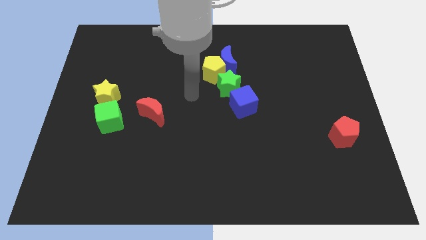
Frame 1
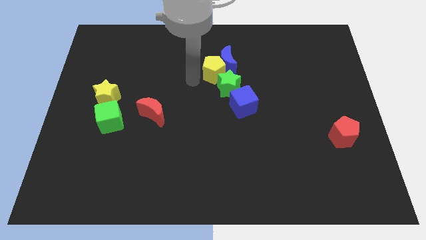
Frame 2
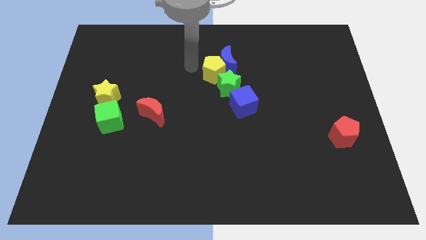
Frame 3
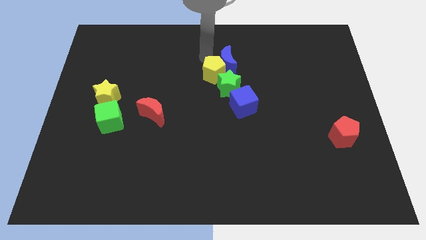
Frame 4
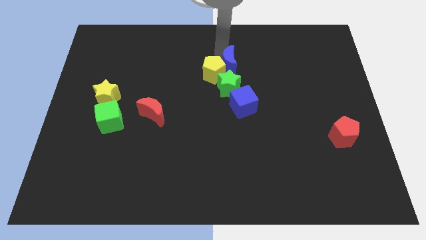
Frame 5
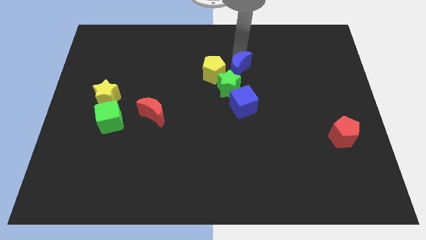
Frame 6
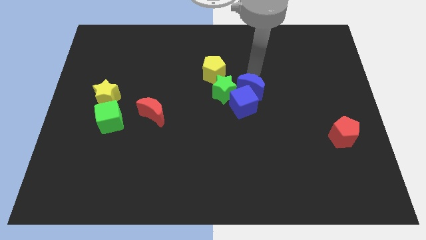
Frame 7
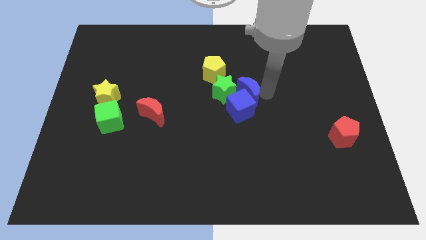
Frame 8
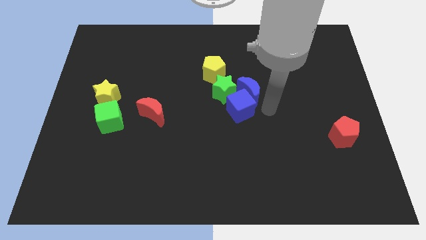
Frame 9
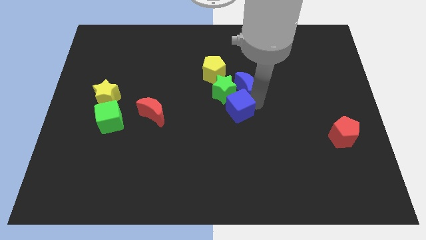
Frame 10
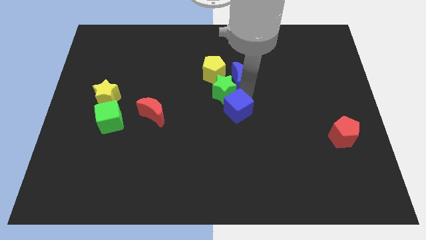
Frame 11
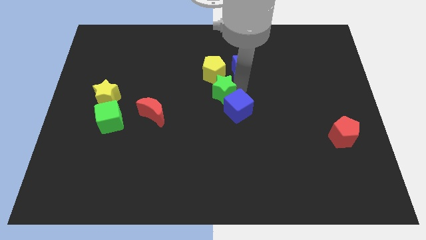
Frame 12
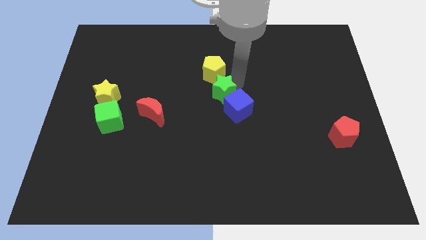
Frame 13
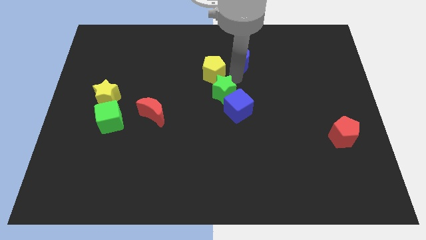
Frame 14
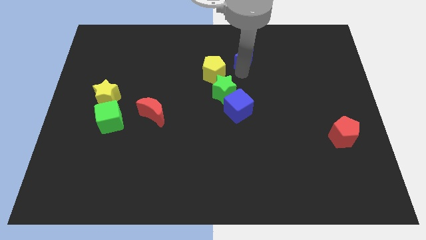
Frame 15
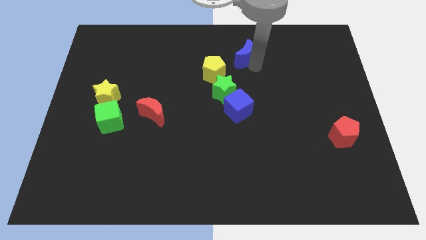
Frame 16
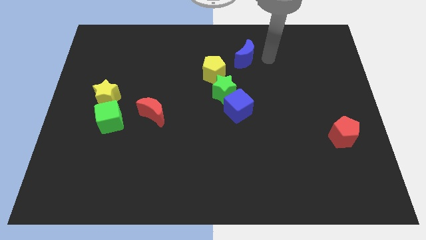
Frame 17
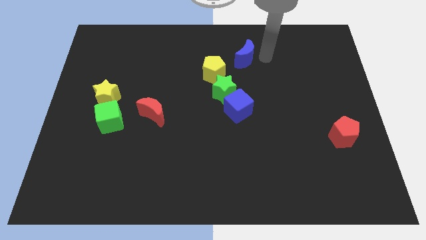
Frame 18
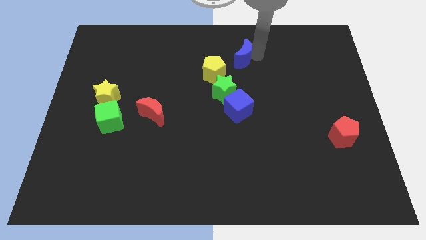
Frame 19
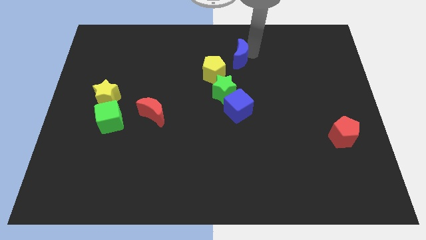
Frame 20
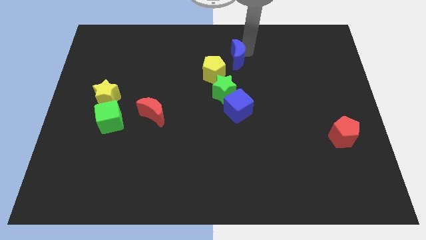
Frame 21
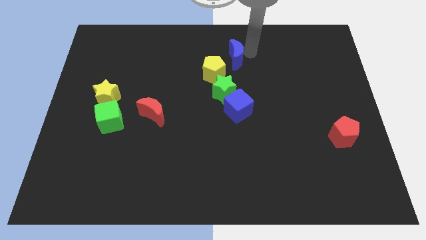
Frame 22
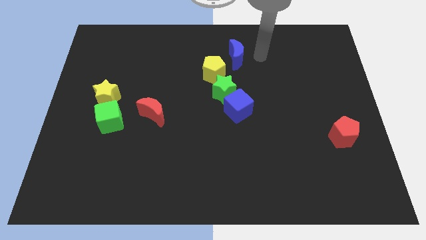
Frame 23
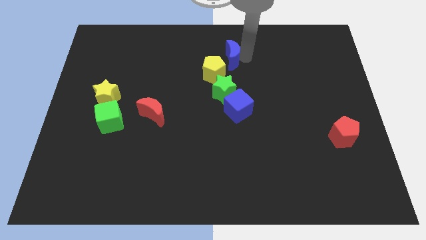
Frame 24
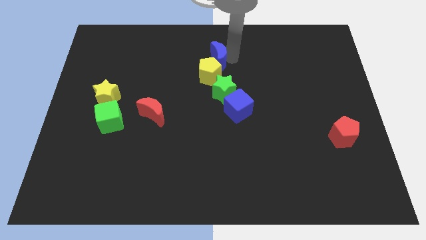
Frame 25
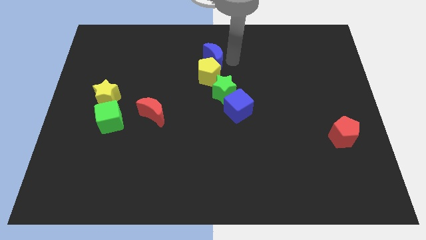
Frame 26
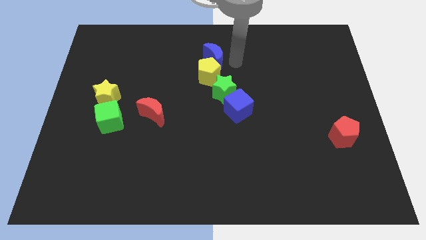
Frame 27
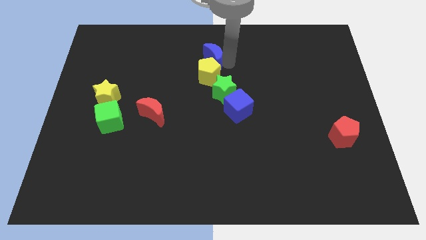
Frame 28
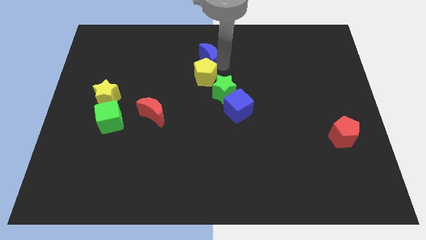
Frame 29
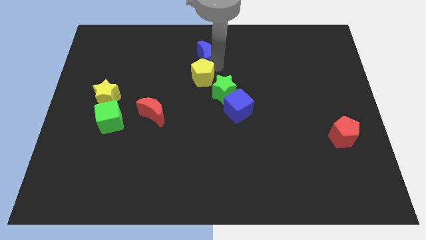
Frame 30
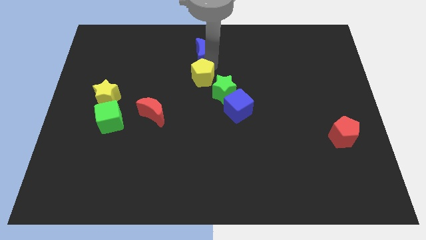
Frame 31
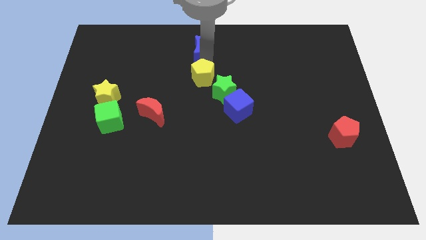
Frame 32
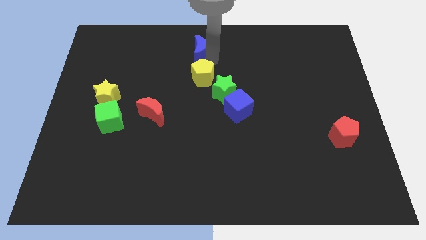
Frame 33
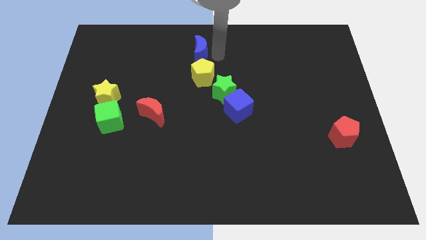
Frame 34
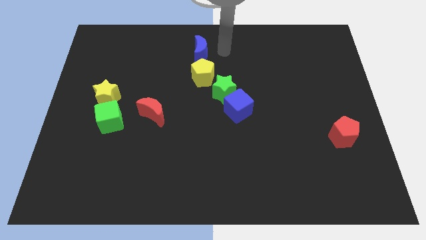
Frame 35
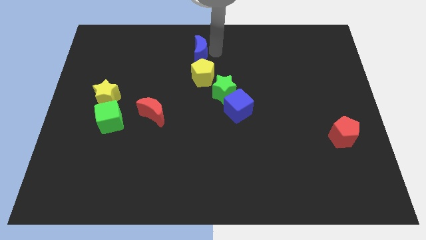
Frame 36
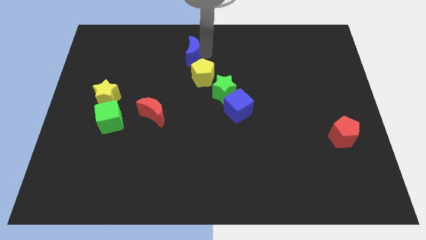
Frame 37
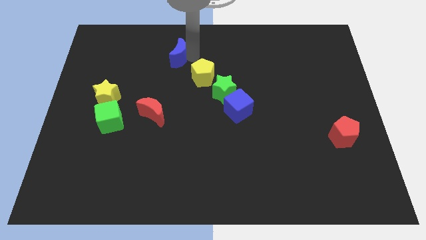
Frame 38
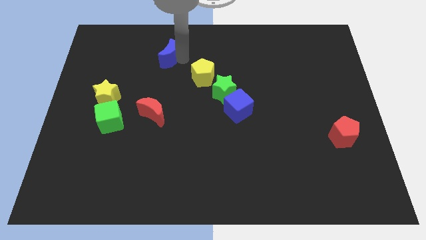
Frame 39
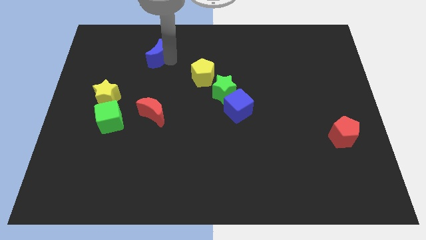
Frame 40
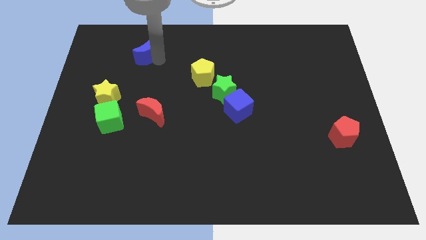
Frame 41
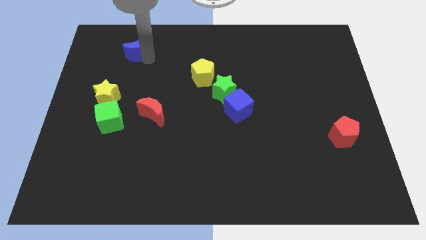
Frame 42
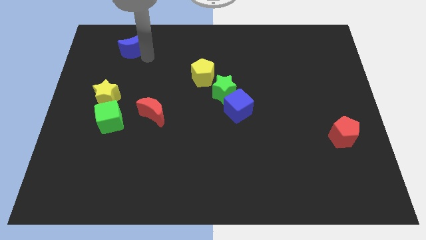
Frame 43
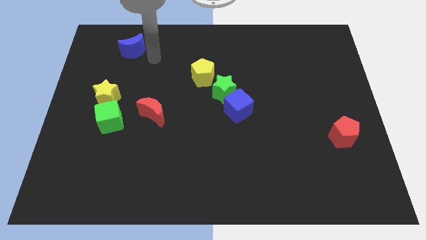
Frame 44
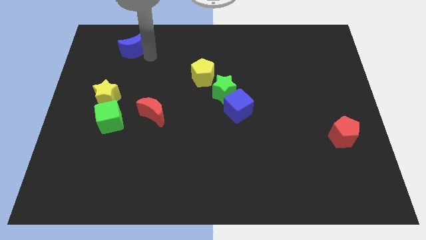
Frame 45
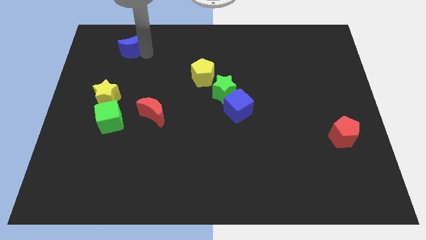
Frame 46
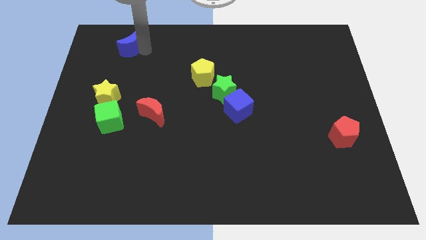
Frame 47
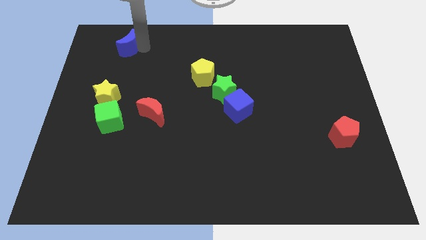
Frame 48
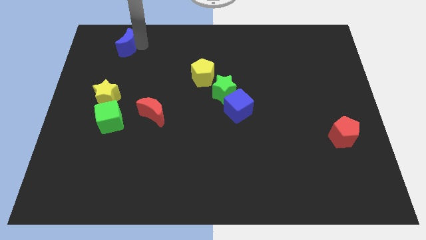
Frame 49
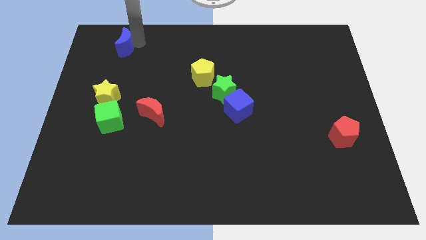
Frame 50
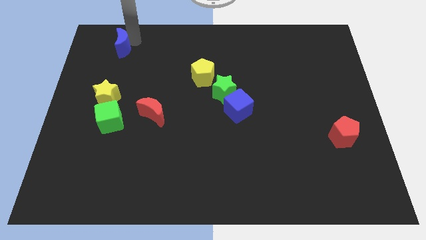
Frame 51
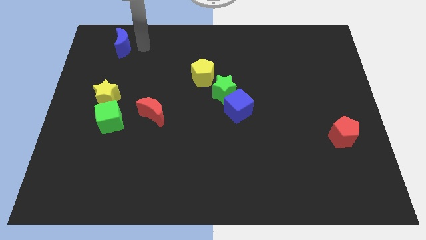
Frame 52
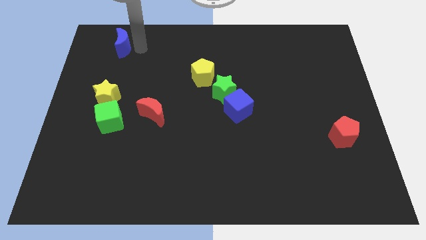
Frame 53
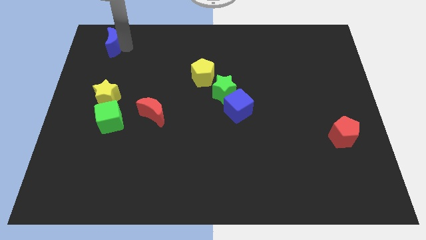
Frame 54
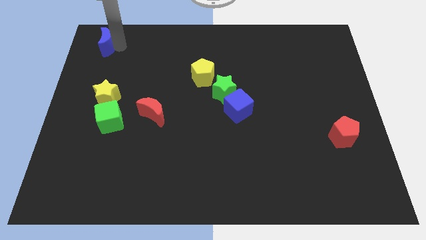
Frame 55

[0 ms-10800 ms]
put the blue moon to the top left corner

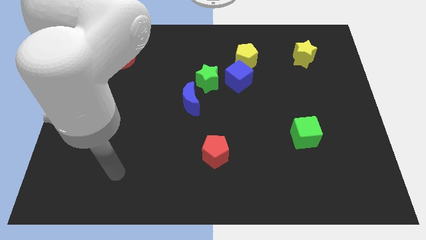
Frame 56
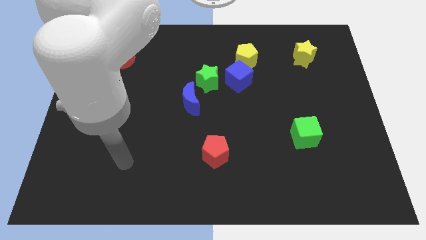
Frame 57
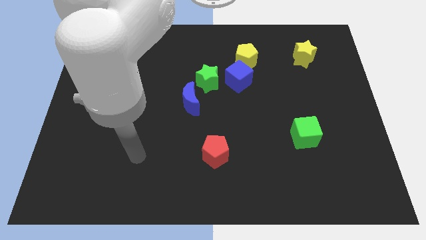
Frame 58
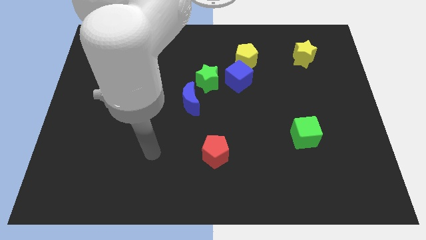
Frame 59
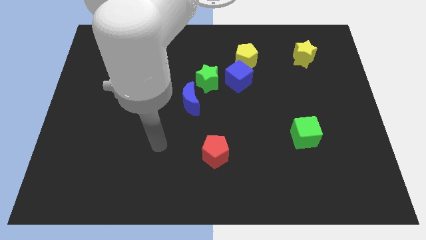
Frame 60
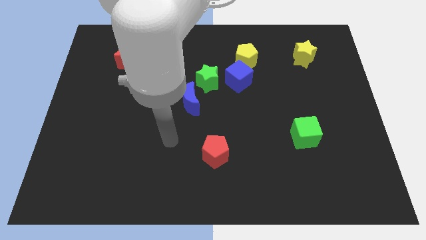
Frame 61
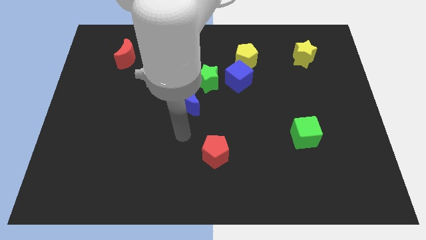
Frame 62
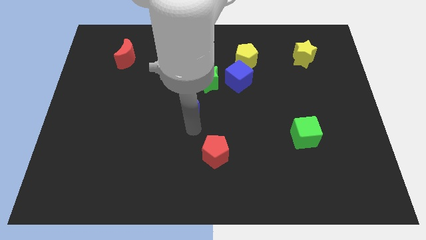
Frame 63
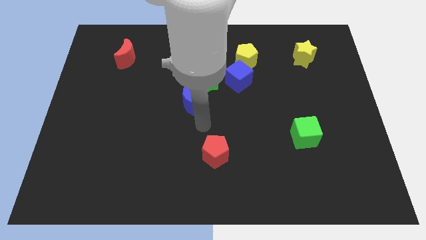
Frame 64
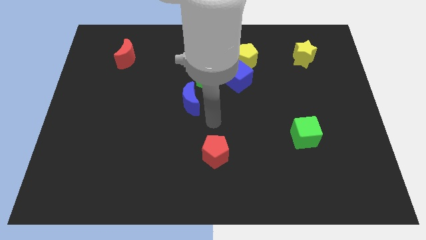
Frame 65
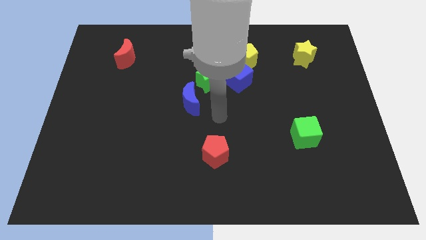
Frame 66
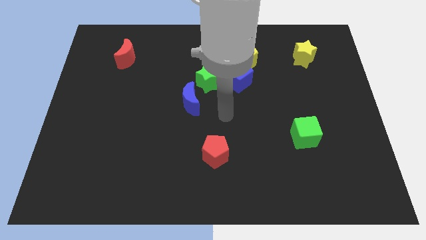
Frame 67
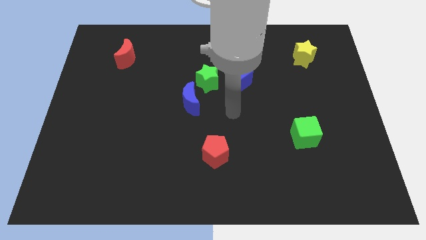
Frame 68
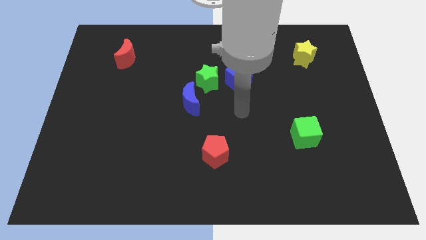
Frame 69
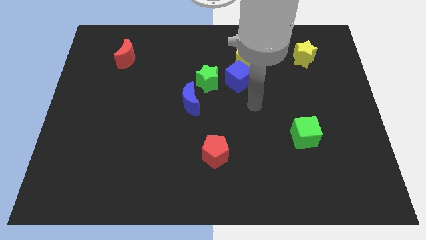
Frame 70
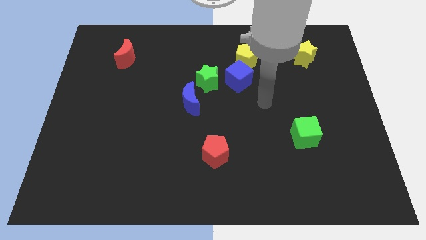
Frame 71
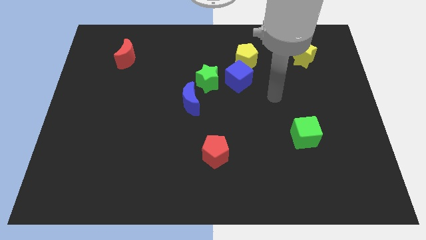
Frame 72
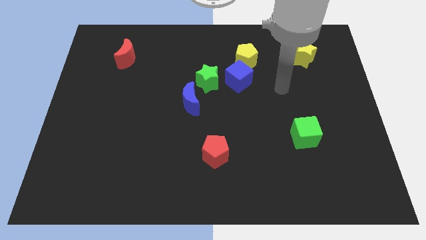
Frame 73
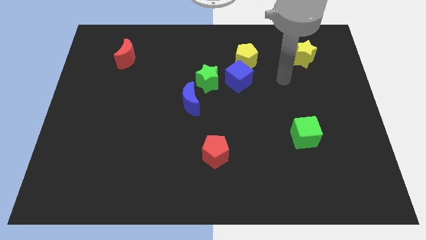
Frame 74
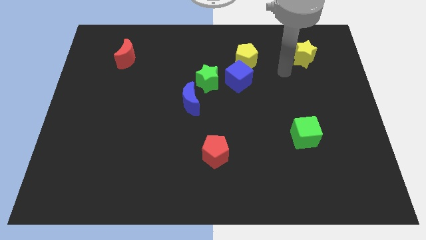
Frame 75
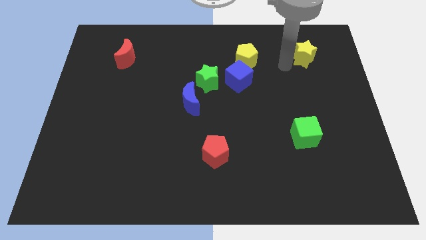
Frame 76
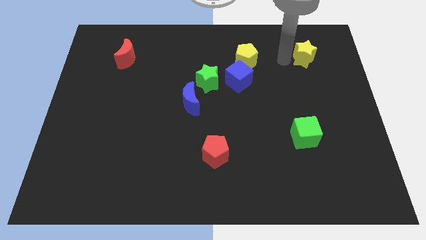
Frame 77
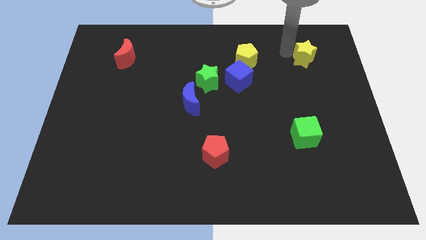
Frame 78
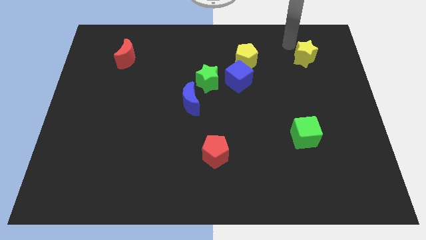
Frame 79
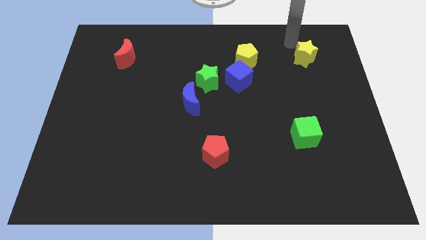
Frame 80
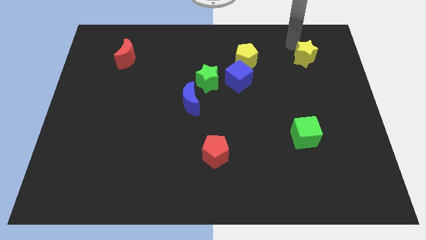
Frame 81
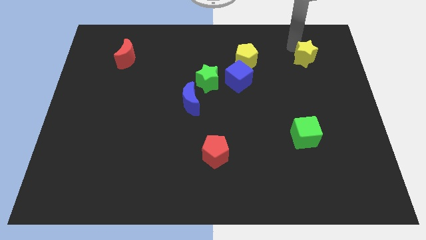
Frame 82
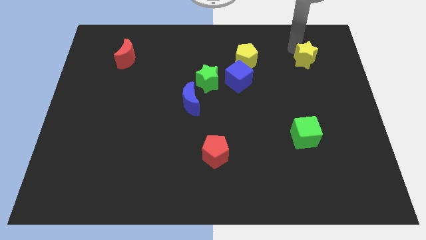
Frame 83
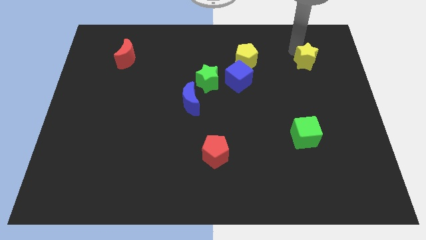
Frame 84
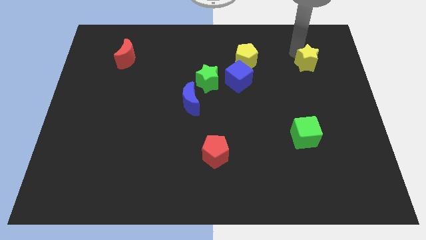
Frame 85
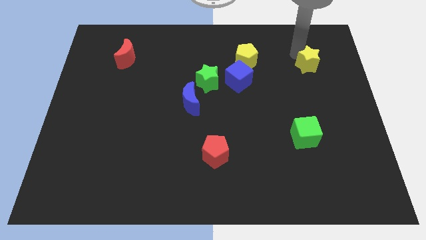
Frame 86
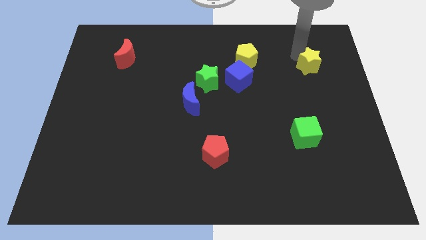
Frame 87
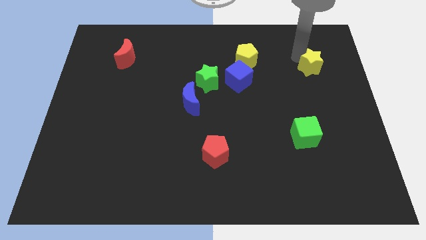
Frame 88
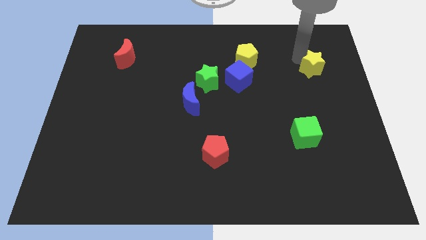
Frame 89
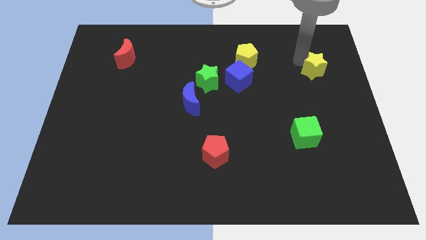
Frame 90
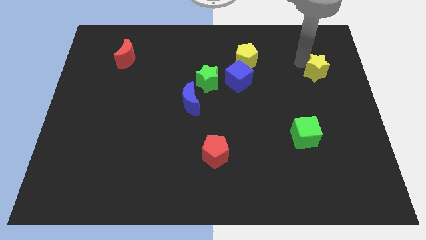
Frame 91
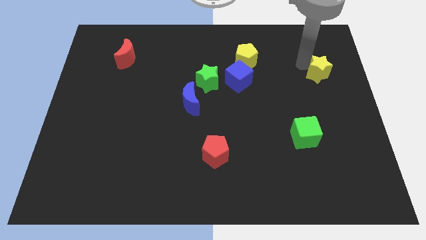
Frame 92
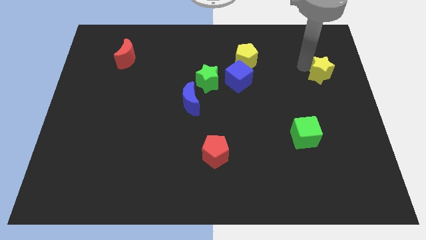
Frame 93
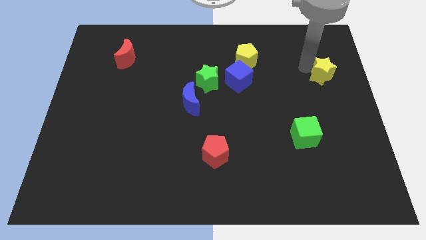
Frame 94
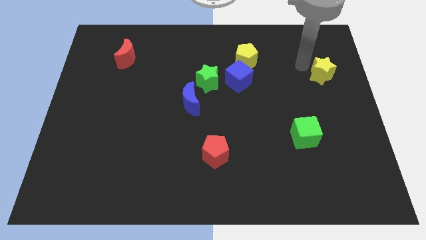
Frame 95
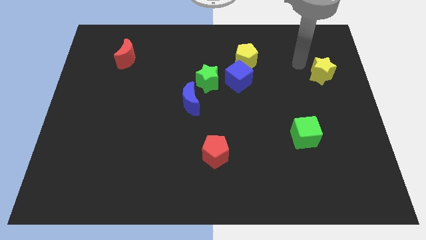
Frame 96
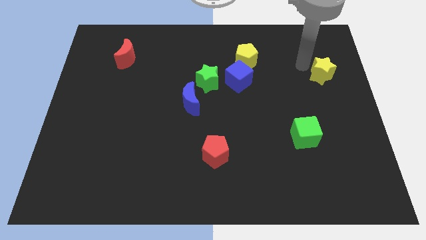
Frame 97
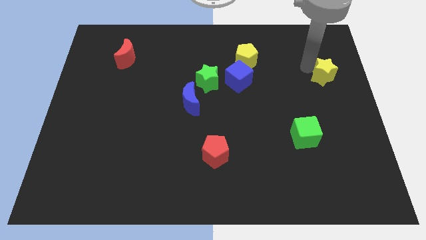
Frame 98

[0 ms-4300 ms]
put the yellow star to the right side of the board
